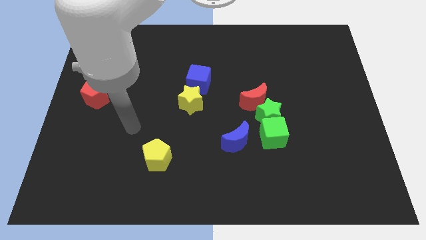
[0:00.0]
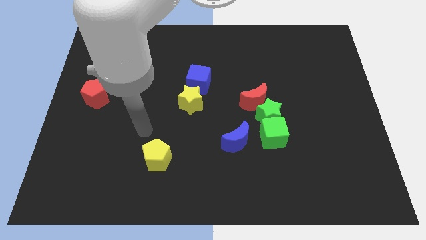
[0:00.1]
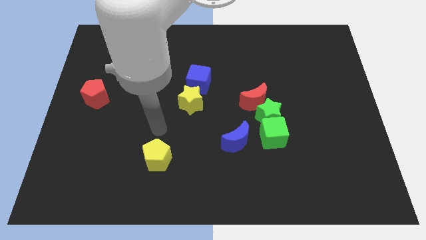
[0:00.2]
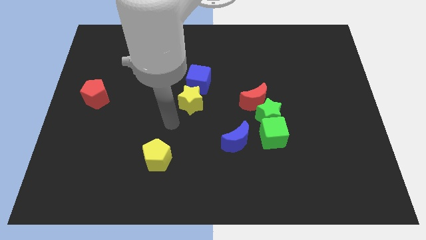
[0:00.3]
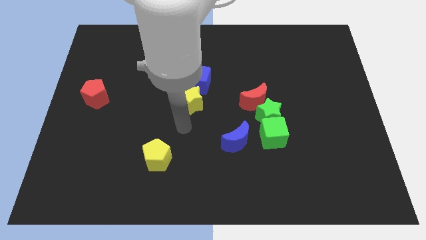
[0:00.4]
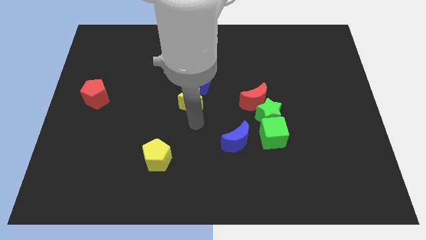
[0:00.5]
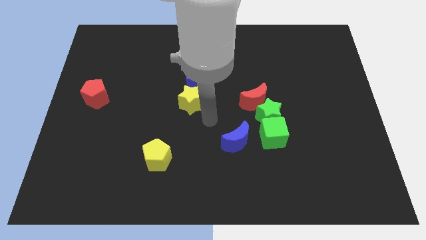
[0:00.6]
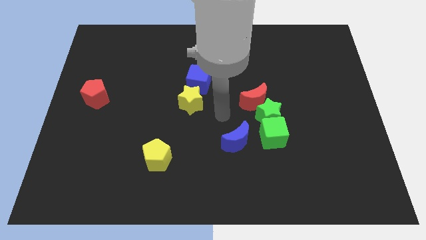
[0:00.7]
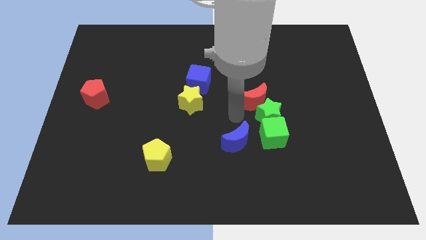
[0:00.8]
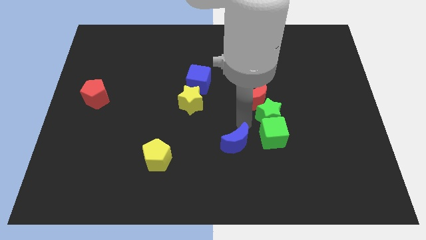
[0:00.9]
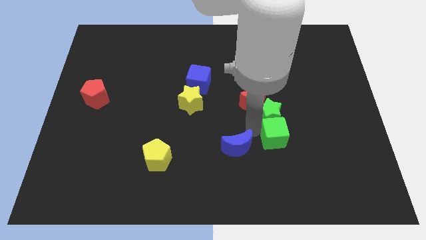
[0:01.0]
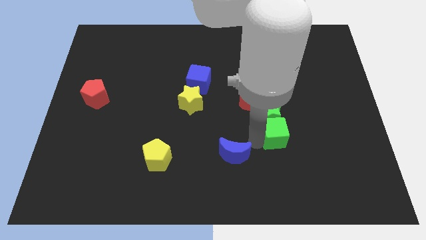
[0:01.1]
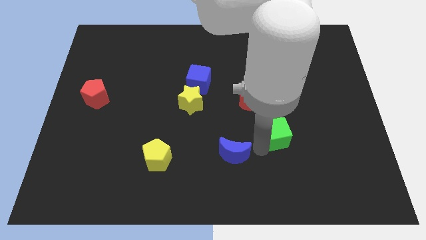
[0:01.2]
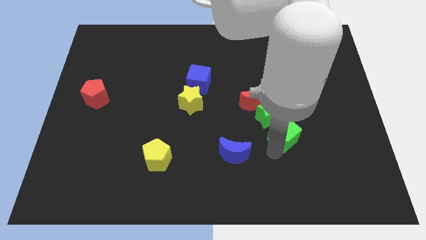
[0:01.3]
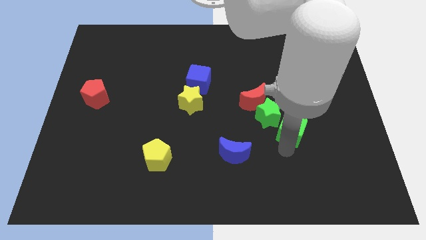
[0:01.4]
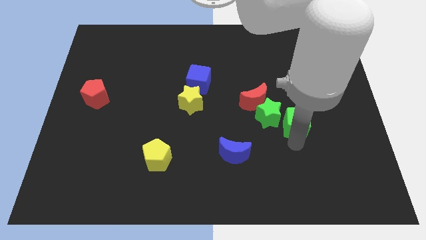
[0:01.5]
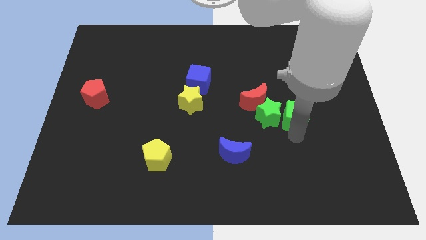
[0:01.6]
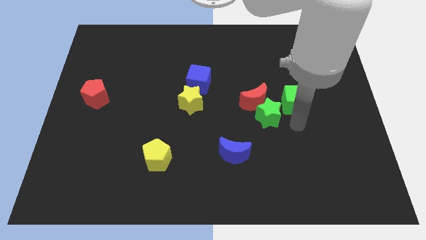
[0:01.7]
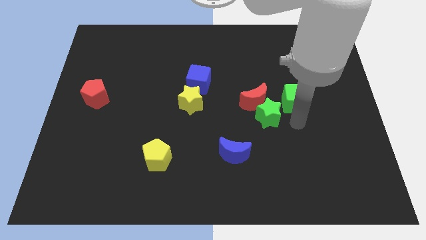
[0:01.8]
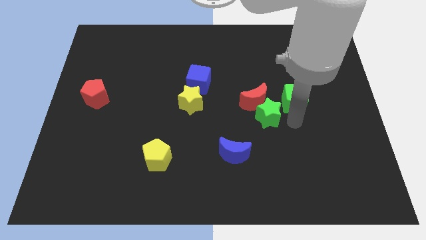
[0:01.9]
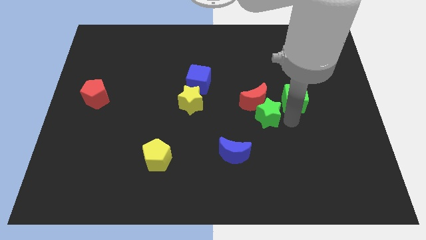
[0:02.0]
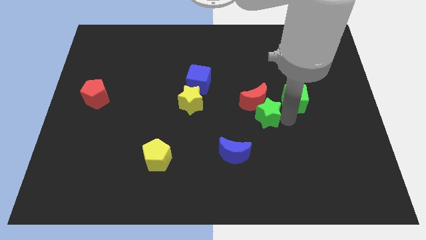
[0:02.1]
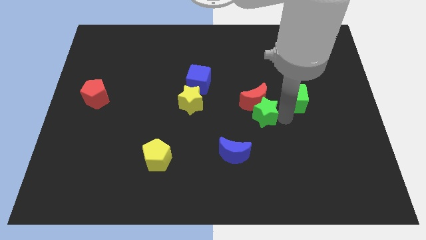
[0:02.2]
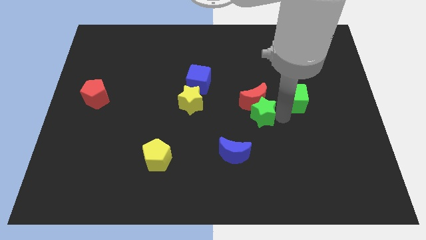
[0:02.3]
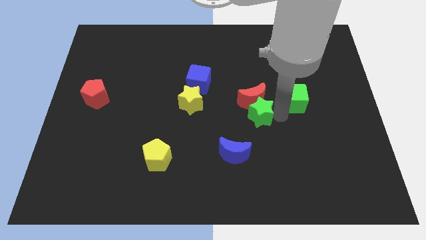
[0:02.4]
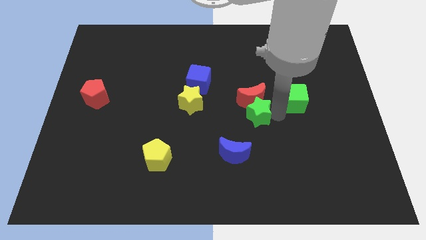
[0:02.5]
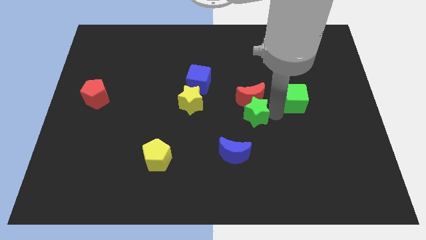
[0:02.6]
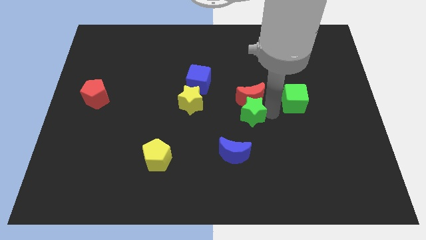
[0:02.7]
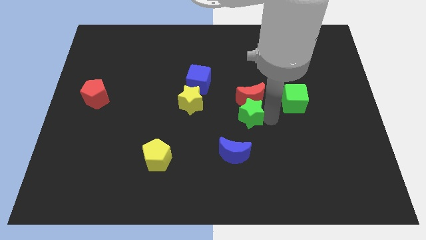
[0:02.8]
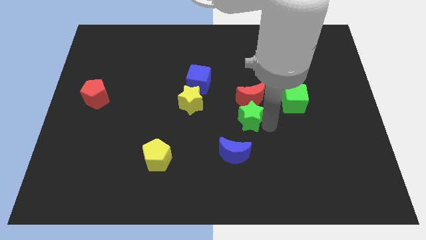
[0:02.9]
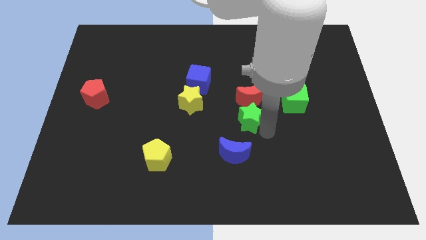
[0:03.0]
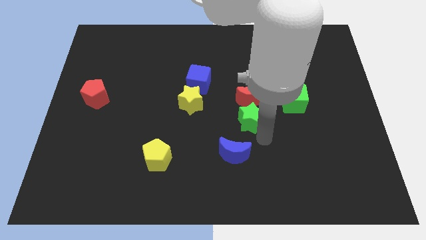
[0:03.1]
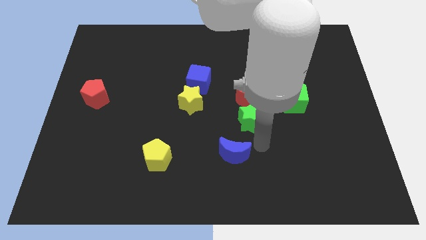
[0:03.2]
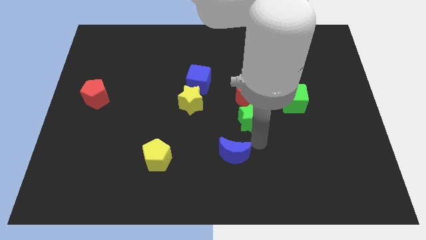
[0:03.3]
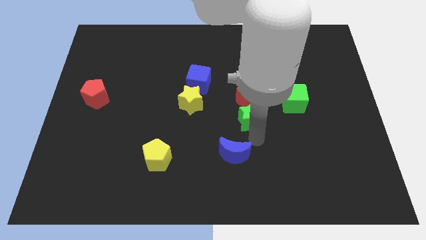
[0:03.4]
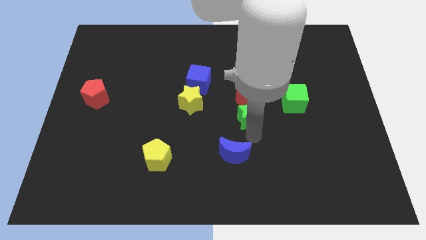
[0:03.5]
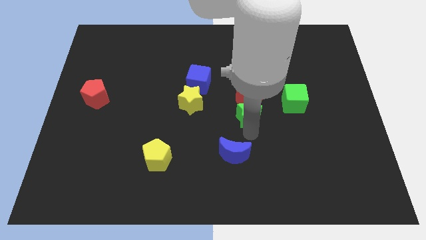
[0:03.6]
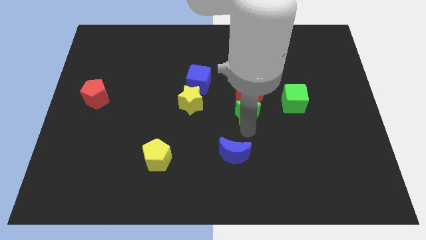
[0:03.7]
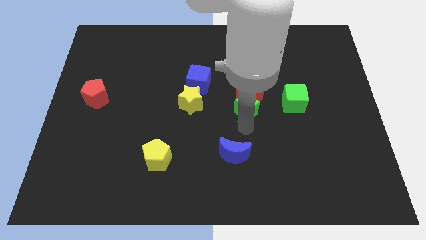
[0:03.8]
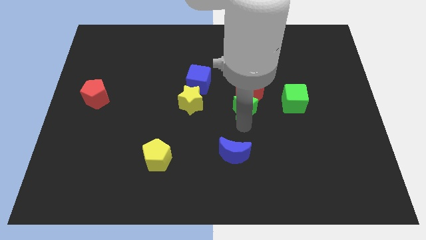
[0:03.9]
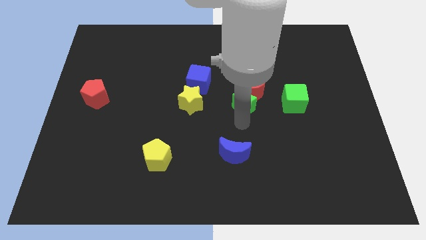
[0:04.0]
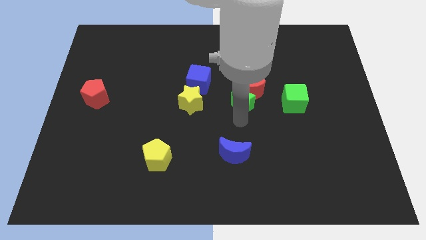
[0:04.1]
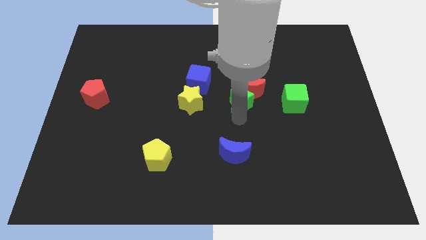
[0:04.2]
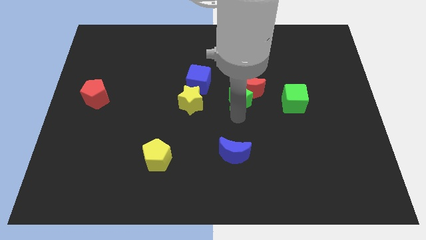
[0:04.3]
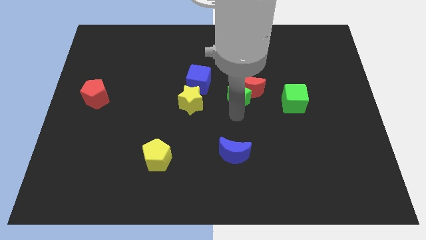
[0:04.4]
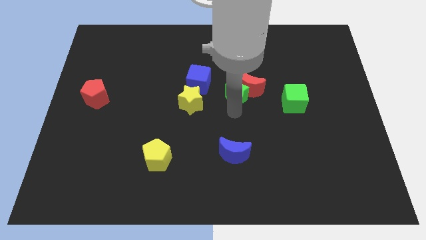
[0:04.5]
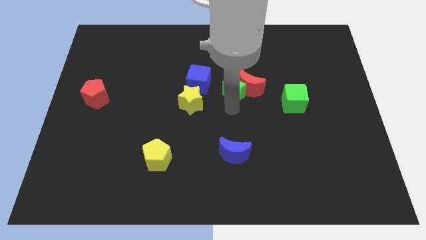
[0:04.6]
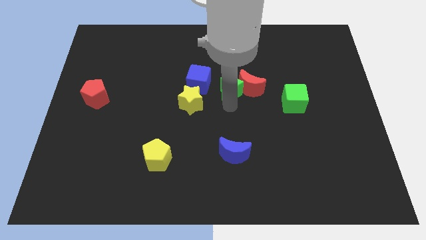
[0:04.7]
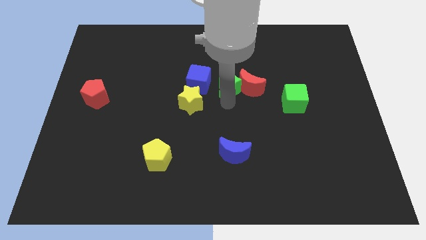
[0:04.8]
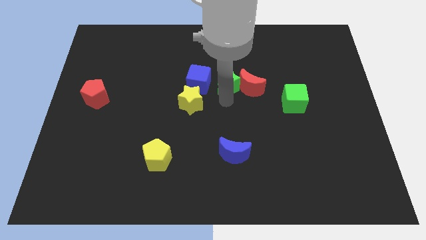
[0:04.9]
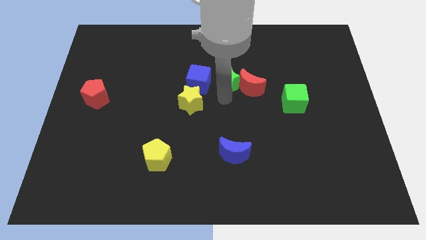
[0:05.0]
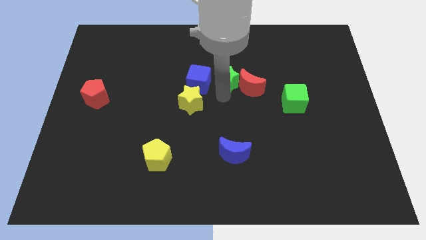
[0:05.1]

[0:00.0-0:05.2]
push the green star to the top right side of the blue cube

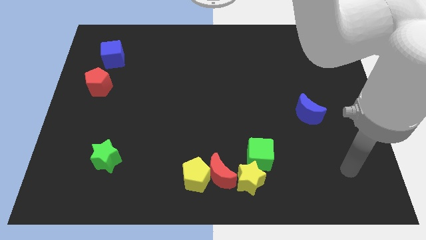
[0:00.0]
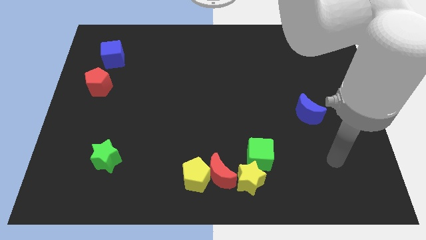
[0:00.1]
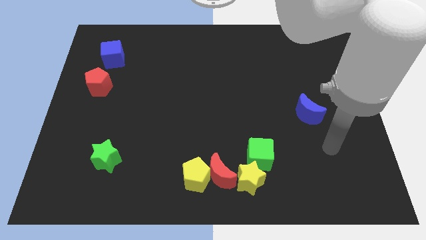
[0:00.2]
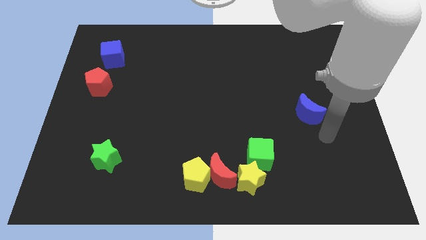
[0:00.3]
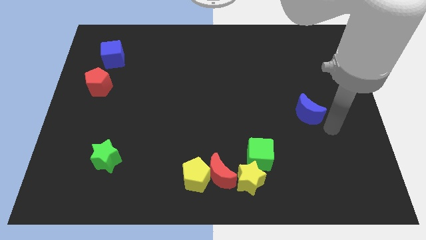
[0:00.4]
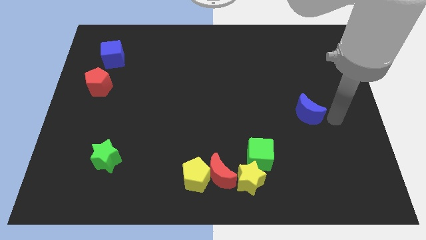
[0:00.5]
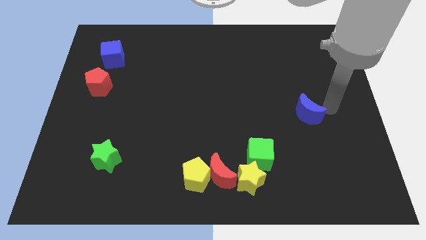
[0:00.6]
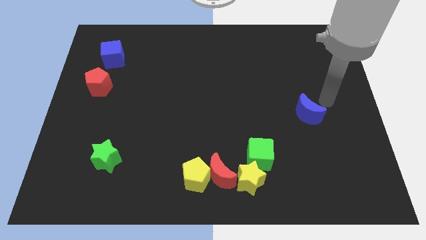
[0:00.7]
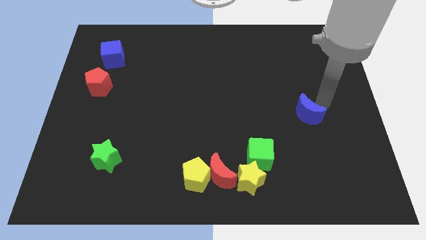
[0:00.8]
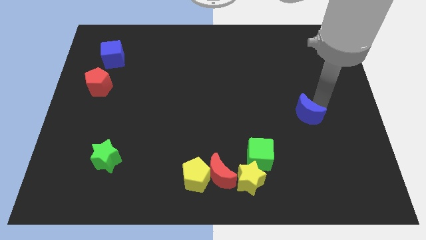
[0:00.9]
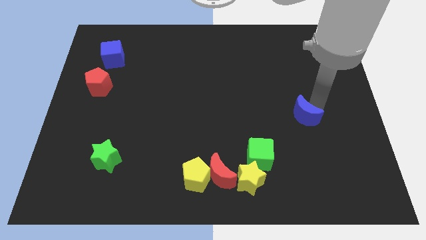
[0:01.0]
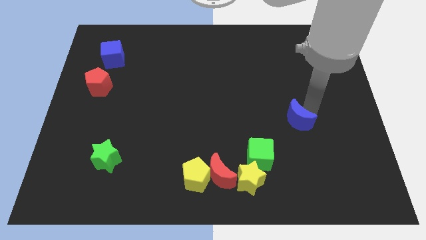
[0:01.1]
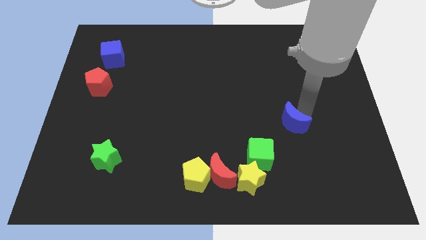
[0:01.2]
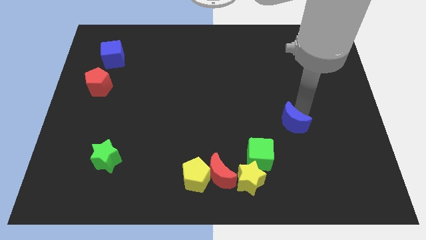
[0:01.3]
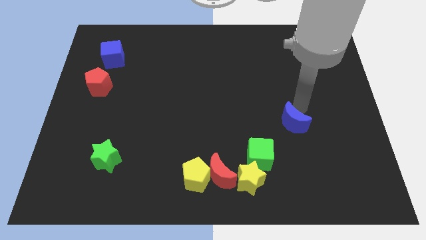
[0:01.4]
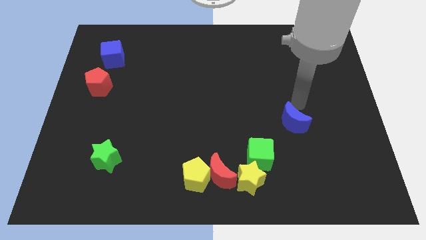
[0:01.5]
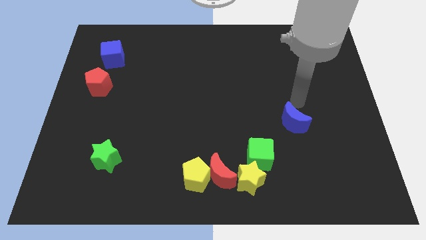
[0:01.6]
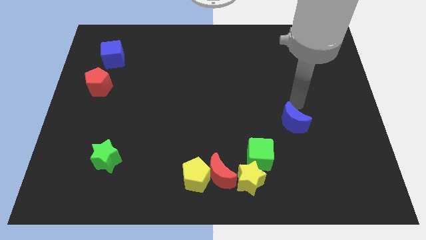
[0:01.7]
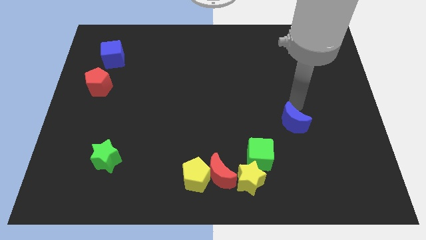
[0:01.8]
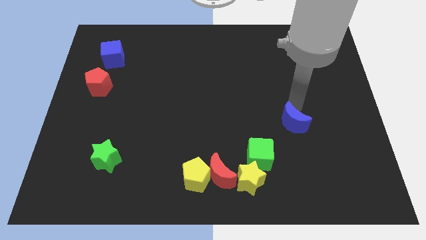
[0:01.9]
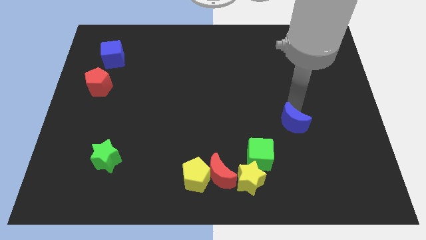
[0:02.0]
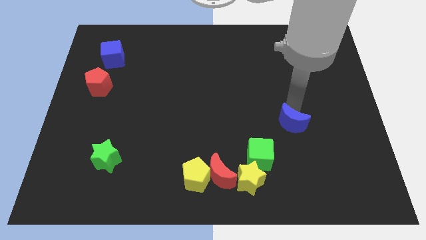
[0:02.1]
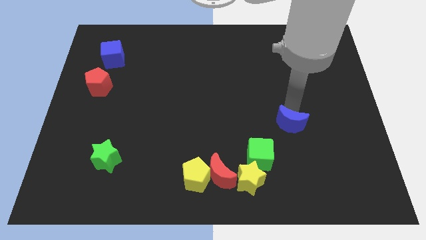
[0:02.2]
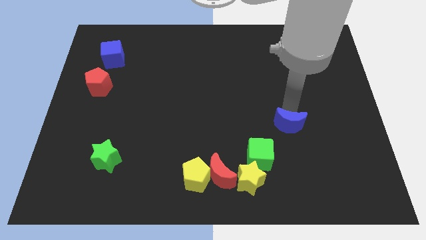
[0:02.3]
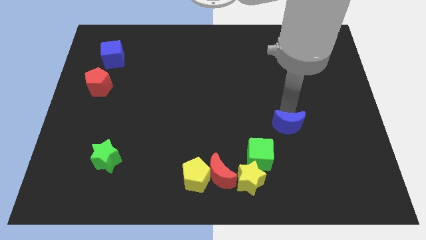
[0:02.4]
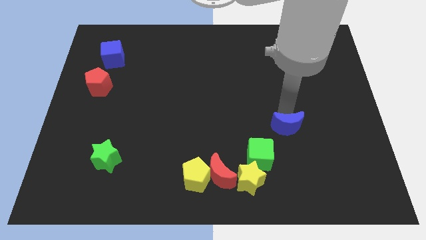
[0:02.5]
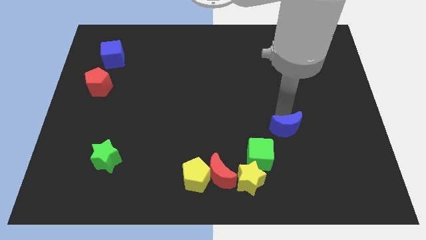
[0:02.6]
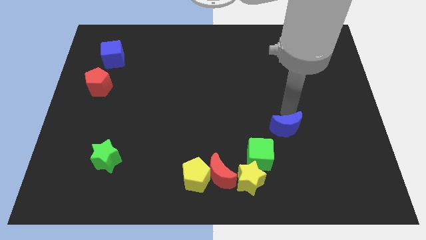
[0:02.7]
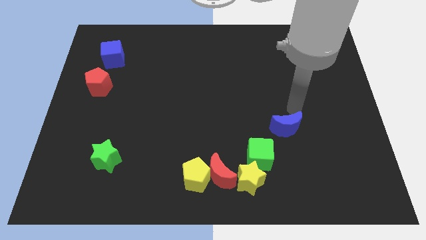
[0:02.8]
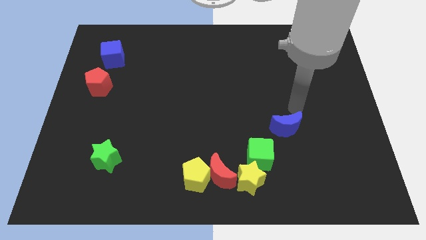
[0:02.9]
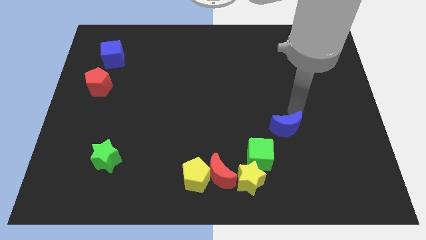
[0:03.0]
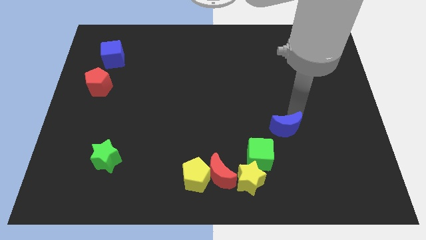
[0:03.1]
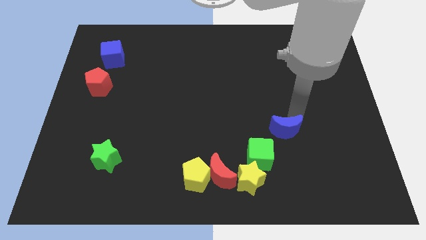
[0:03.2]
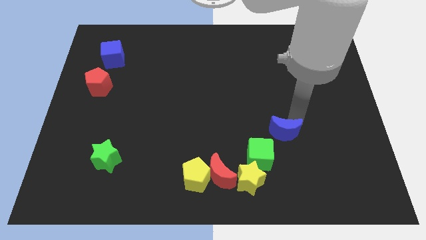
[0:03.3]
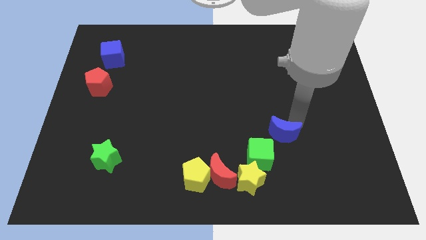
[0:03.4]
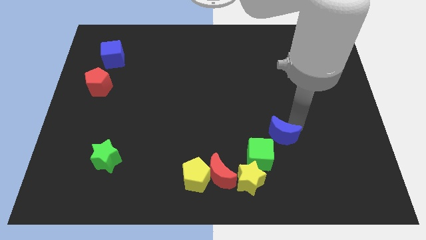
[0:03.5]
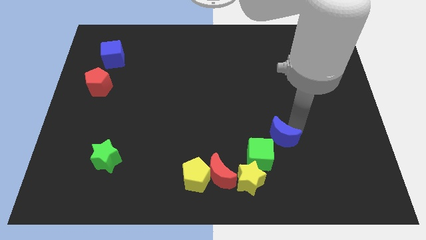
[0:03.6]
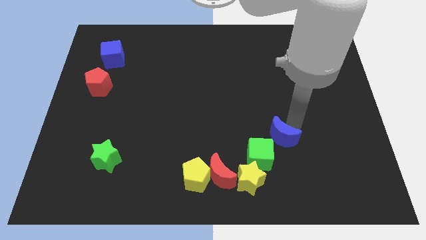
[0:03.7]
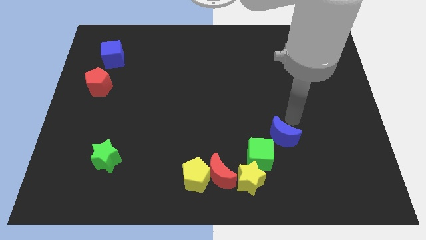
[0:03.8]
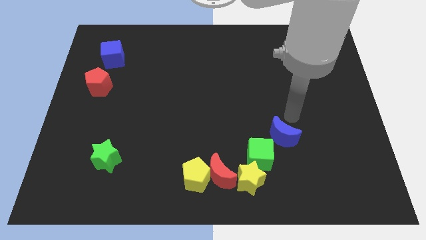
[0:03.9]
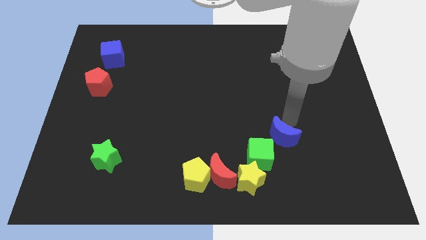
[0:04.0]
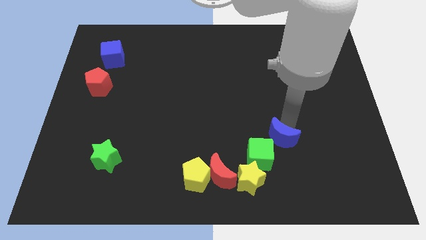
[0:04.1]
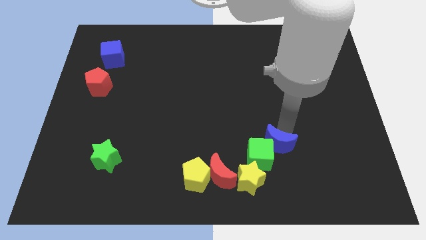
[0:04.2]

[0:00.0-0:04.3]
put the blue moon to the top right of the yellow star
